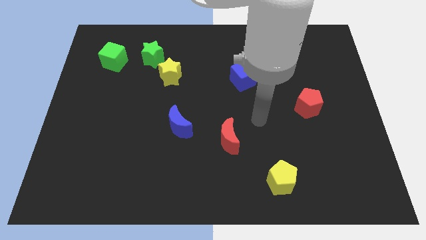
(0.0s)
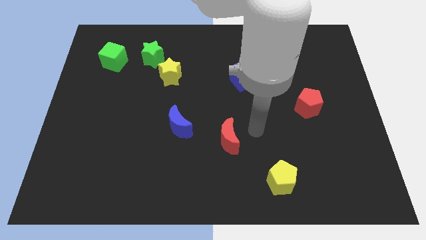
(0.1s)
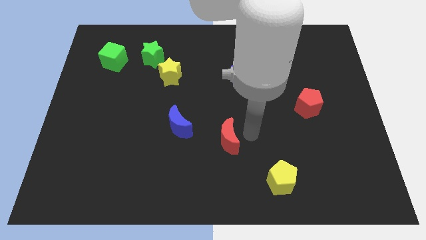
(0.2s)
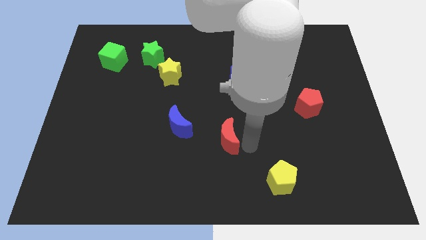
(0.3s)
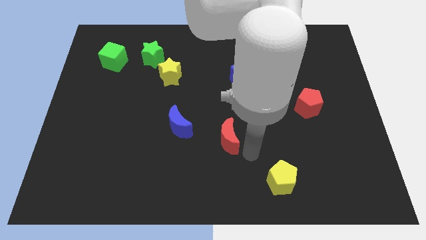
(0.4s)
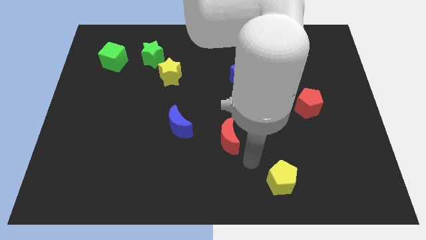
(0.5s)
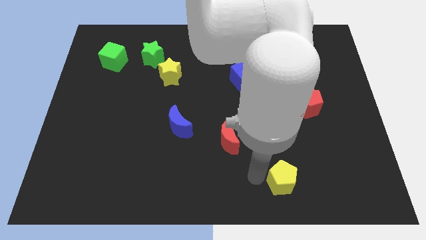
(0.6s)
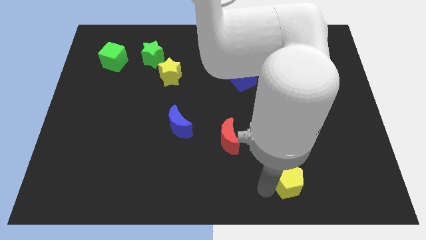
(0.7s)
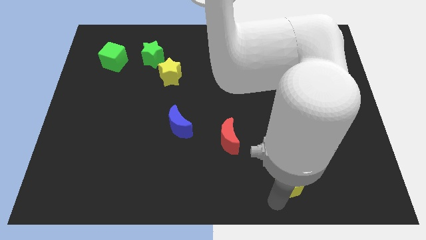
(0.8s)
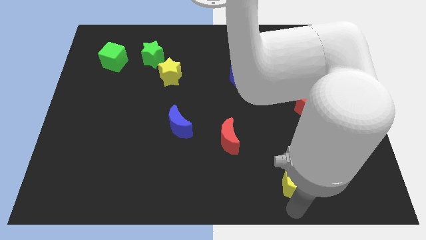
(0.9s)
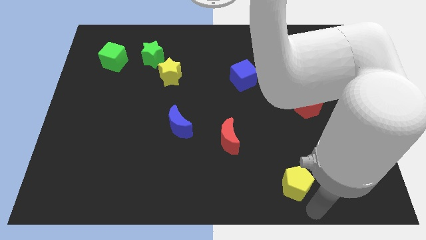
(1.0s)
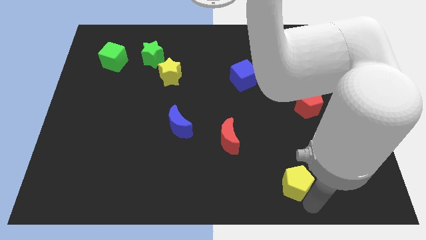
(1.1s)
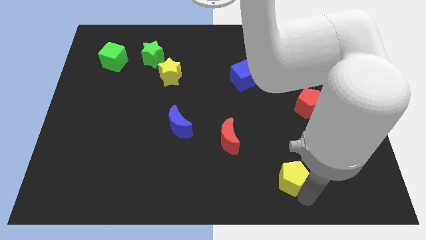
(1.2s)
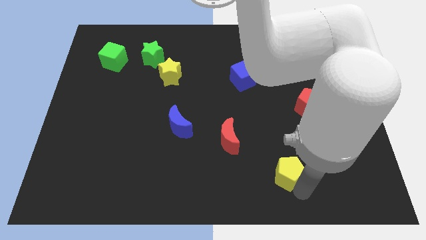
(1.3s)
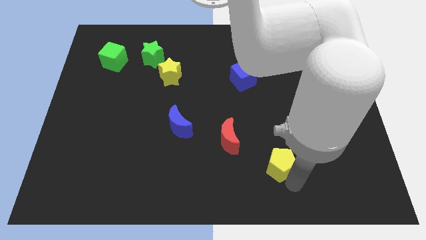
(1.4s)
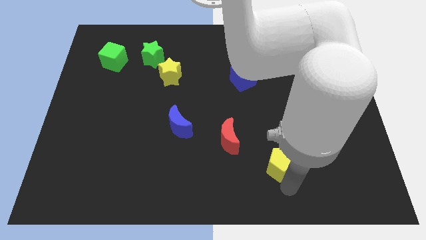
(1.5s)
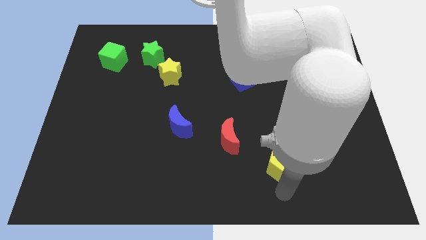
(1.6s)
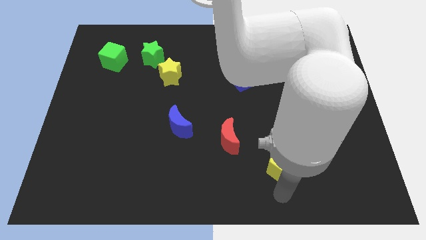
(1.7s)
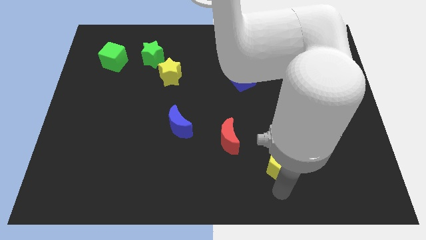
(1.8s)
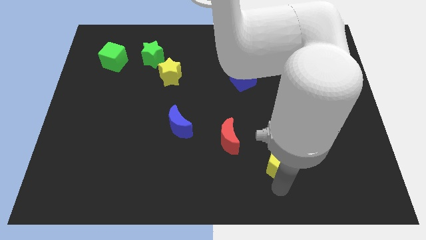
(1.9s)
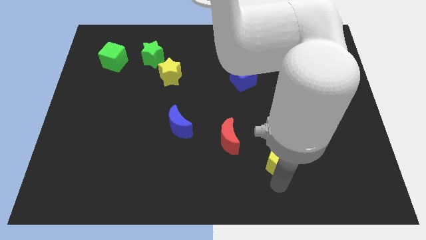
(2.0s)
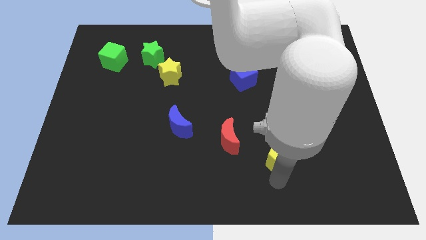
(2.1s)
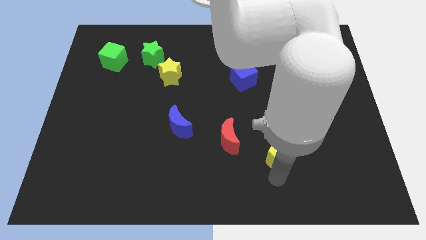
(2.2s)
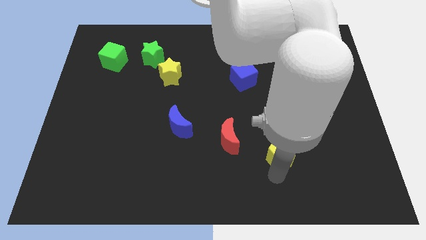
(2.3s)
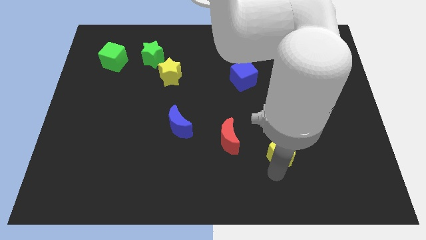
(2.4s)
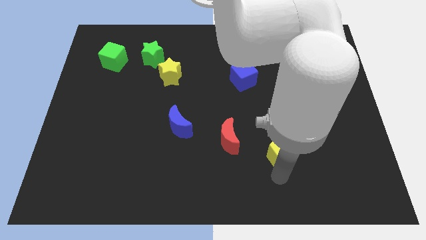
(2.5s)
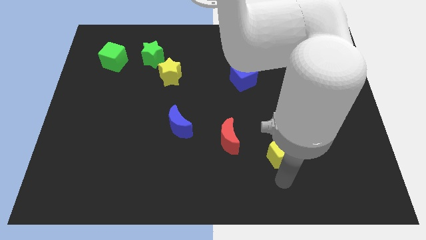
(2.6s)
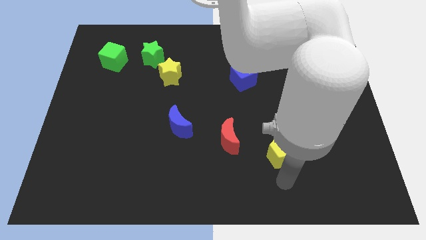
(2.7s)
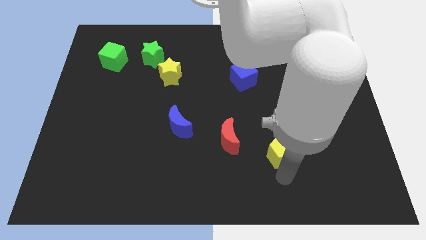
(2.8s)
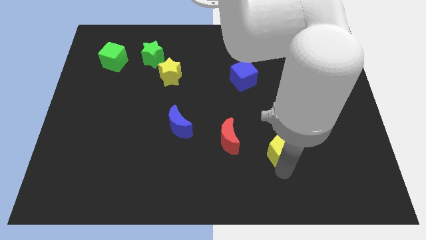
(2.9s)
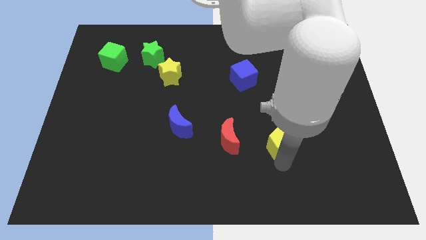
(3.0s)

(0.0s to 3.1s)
slightly move the yellow pentagon up

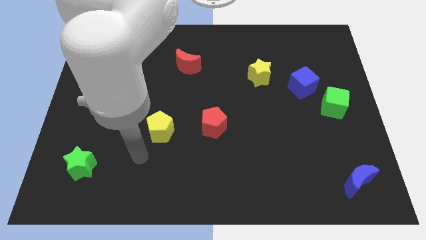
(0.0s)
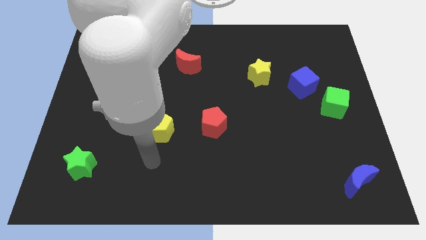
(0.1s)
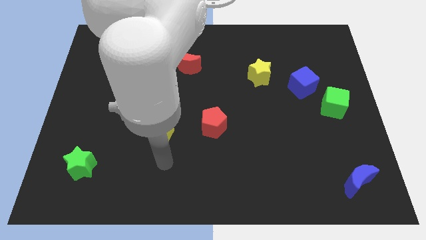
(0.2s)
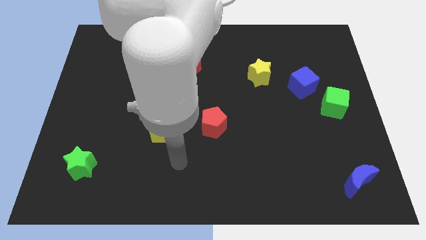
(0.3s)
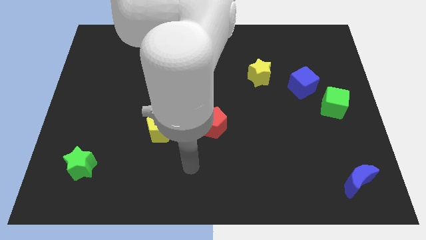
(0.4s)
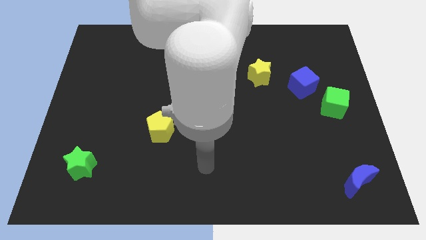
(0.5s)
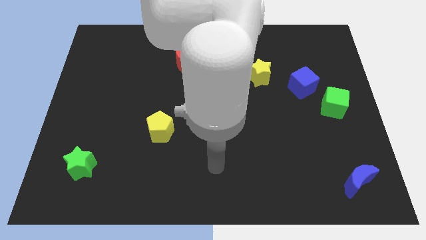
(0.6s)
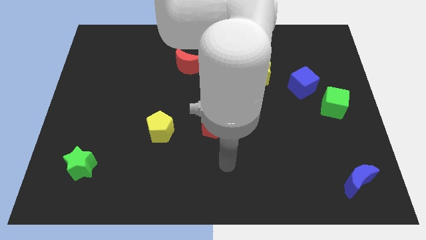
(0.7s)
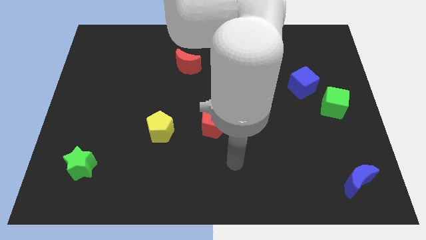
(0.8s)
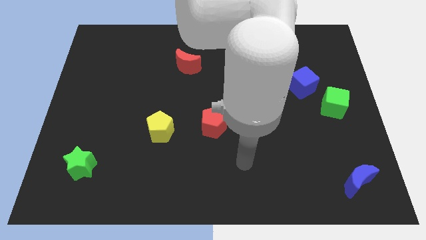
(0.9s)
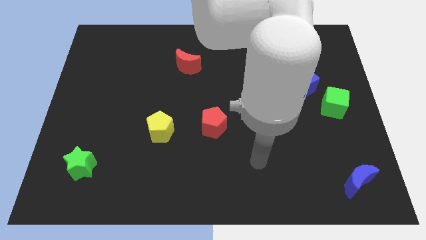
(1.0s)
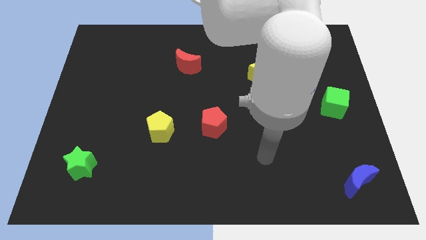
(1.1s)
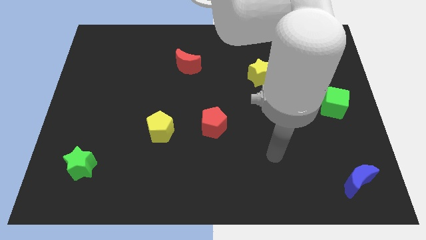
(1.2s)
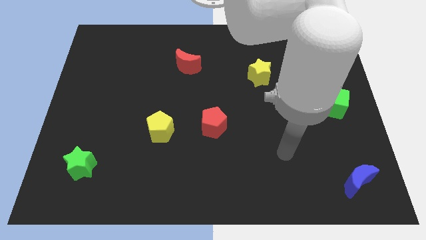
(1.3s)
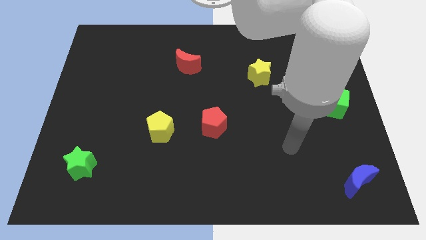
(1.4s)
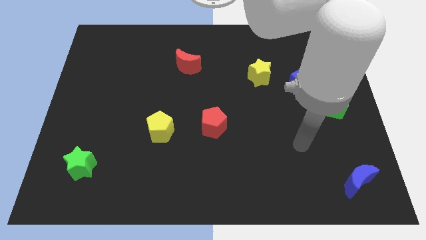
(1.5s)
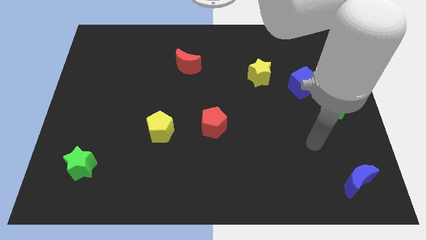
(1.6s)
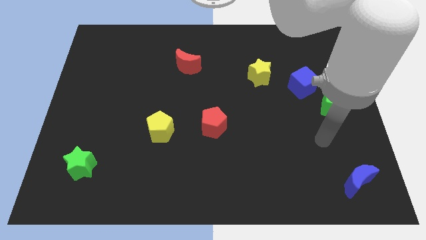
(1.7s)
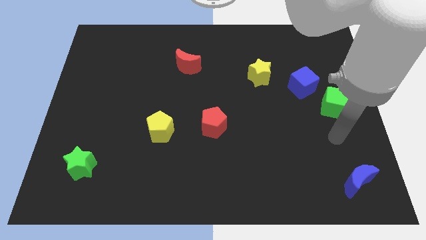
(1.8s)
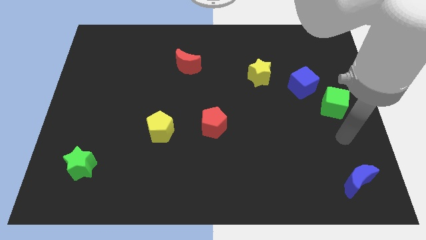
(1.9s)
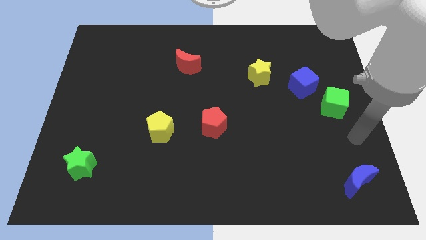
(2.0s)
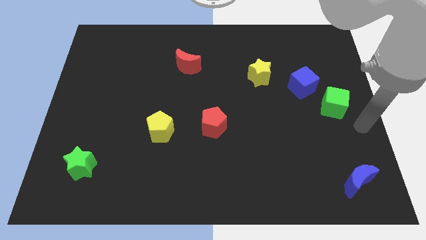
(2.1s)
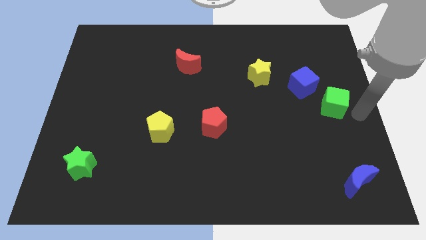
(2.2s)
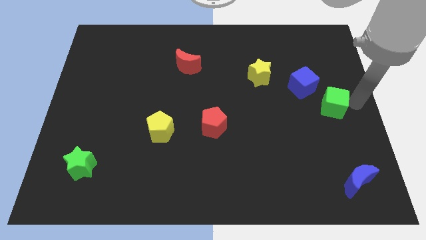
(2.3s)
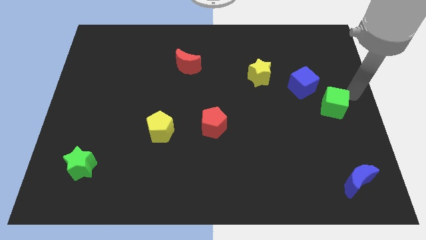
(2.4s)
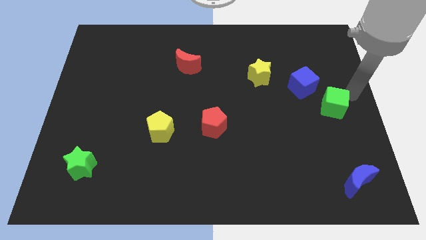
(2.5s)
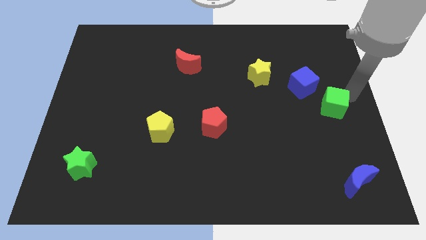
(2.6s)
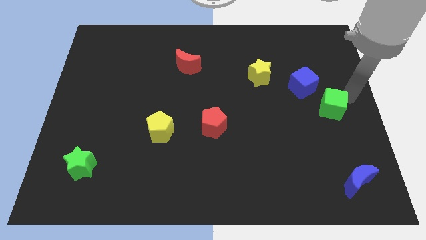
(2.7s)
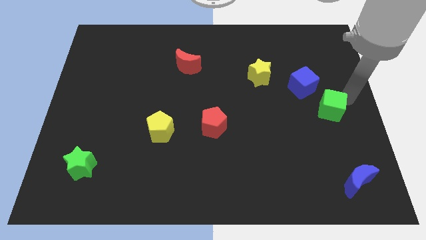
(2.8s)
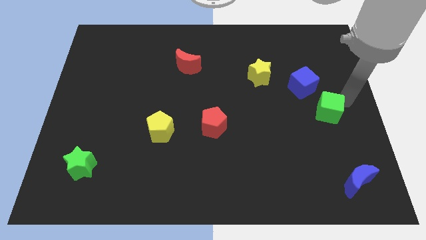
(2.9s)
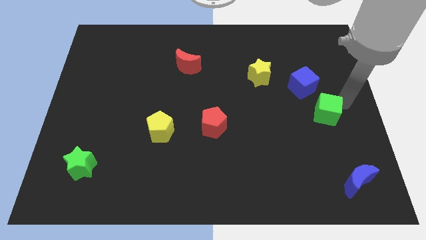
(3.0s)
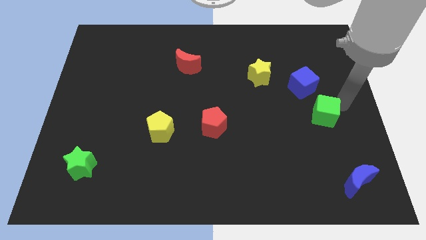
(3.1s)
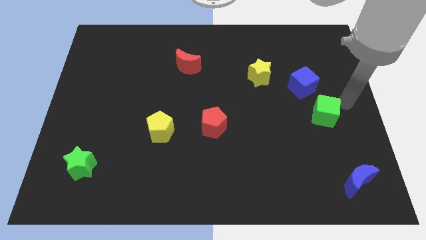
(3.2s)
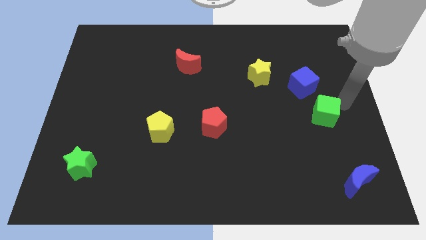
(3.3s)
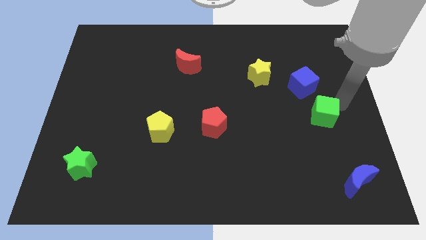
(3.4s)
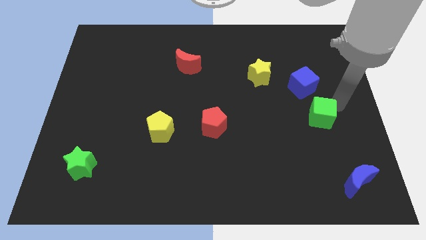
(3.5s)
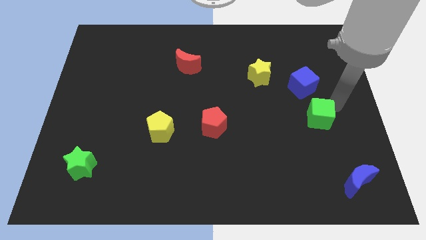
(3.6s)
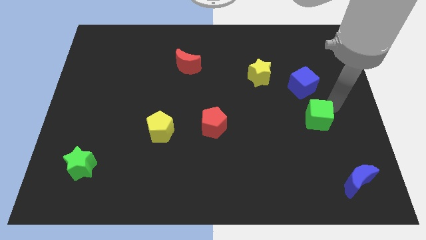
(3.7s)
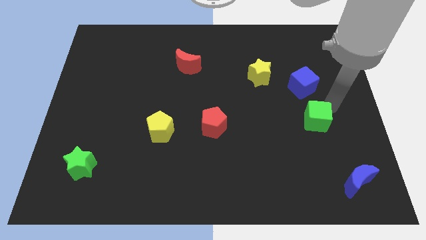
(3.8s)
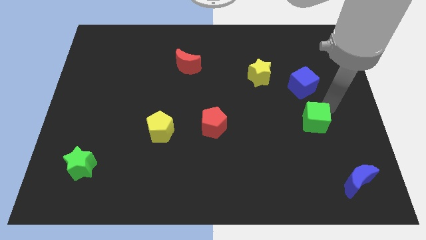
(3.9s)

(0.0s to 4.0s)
push the green cube slightly down and then to the left

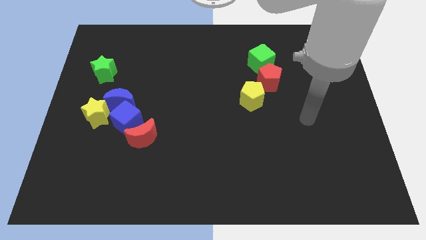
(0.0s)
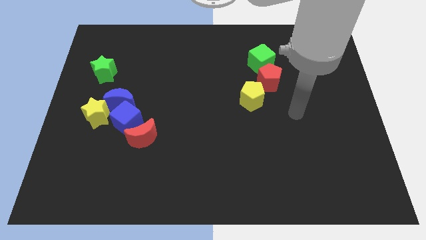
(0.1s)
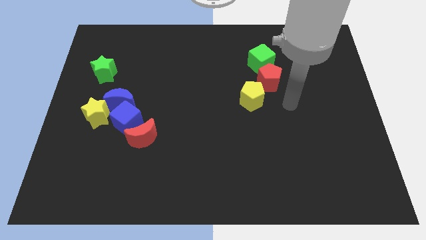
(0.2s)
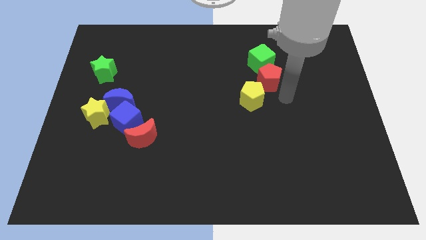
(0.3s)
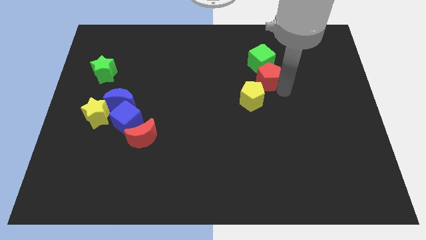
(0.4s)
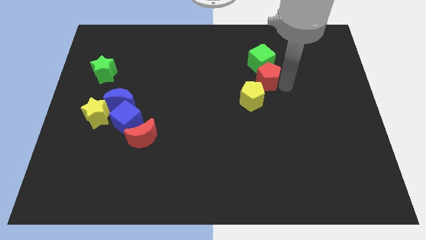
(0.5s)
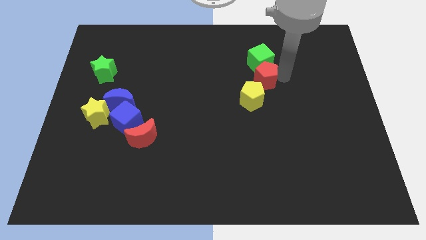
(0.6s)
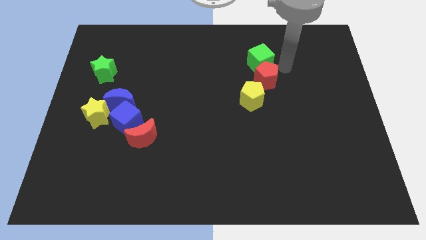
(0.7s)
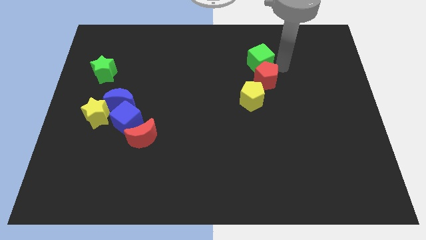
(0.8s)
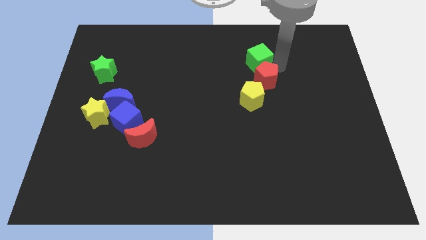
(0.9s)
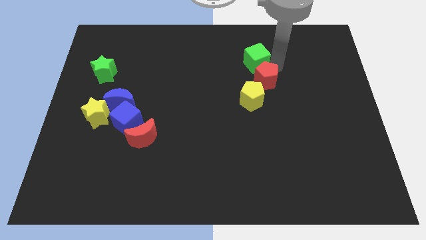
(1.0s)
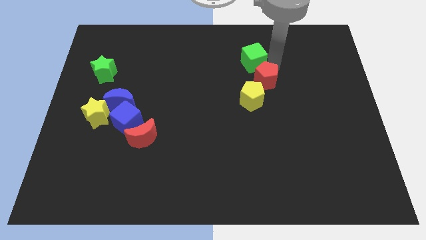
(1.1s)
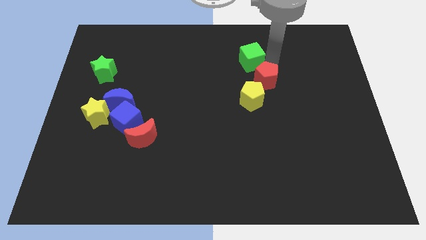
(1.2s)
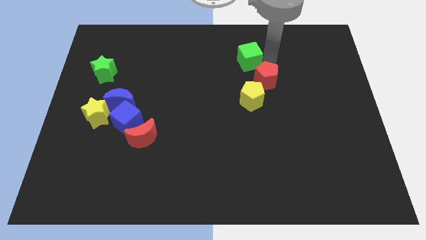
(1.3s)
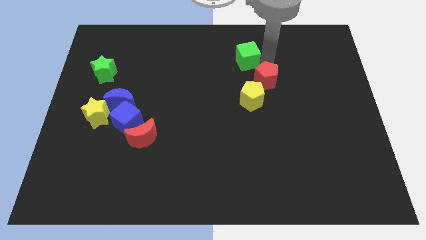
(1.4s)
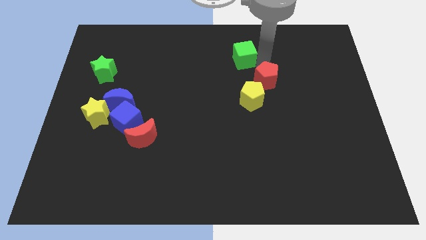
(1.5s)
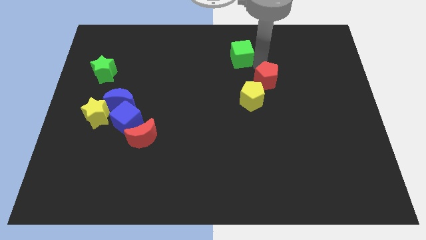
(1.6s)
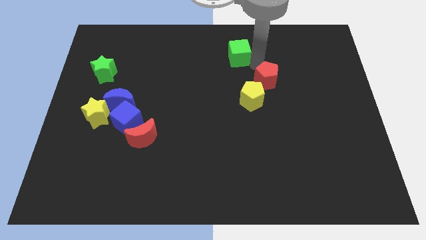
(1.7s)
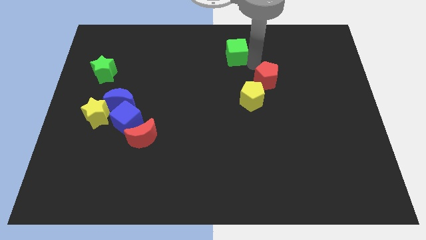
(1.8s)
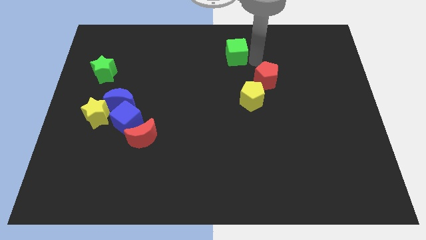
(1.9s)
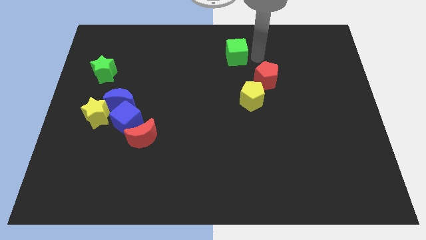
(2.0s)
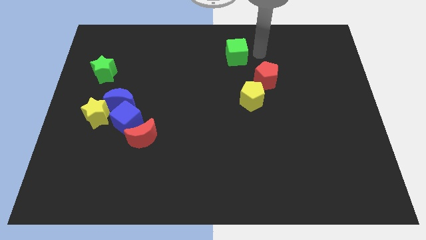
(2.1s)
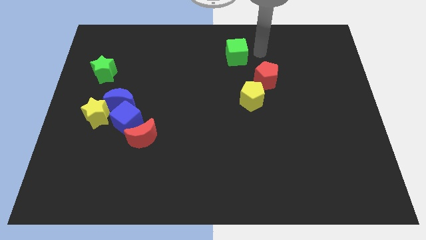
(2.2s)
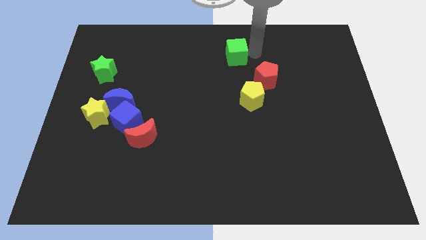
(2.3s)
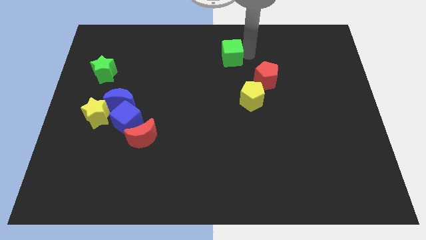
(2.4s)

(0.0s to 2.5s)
slide the green cube to the left a little
